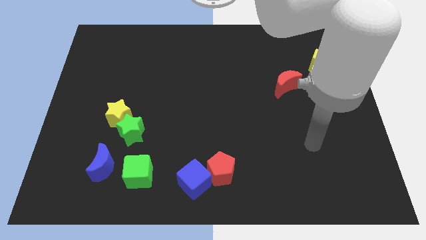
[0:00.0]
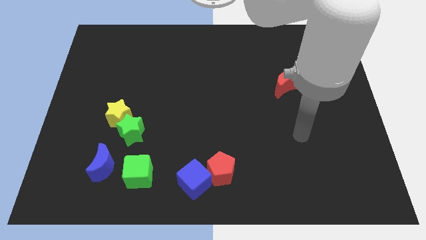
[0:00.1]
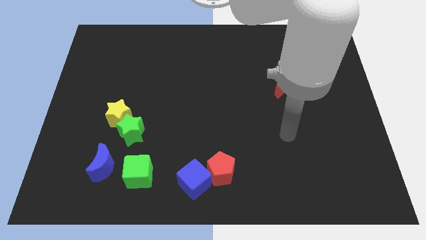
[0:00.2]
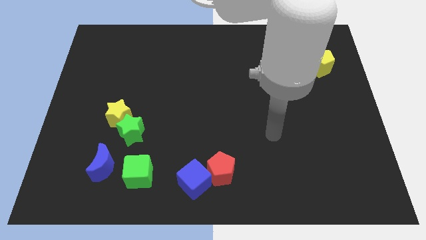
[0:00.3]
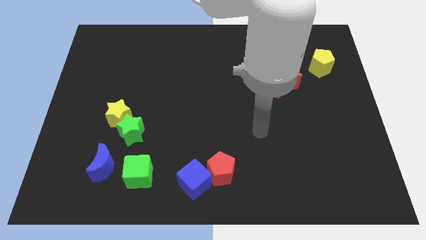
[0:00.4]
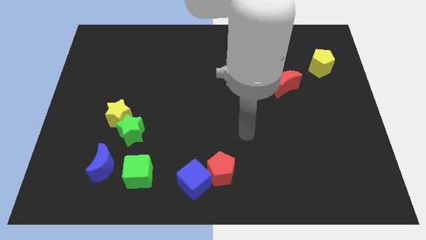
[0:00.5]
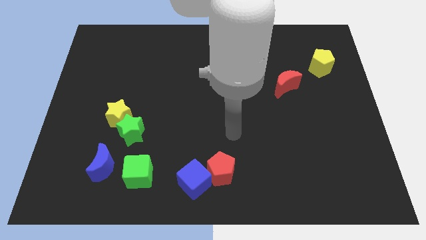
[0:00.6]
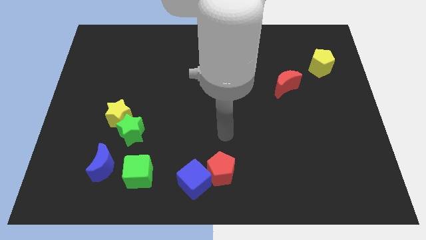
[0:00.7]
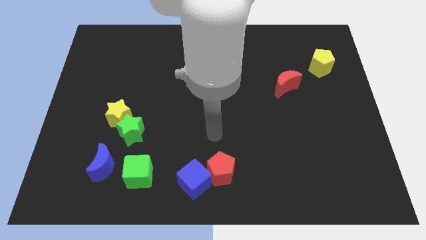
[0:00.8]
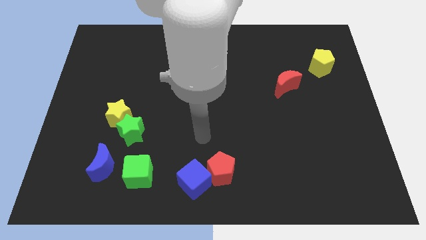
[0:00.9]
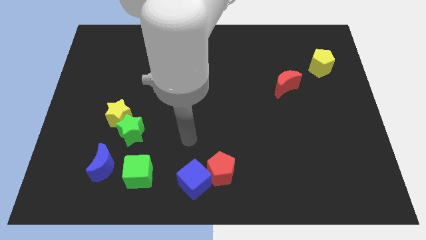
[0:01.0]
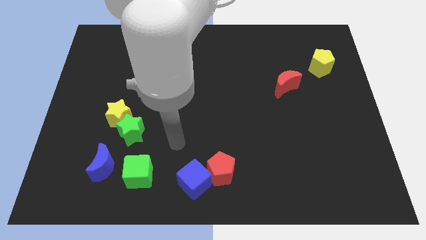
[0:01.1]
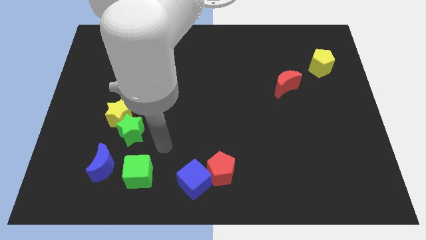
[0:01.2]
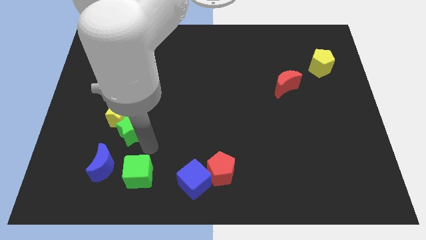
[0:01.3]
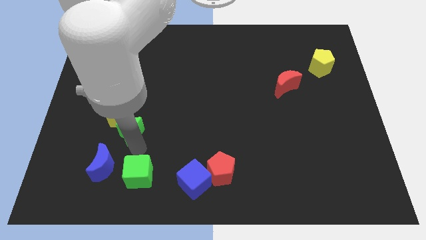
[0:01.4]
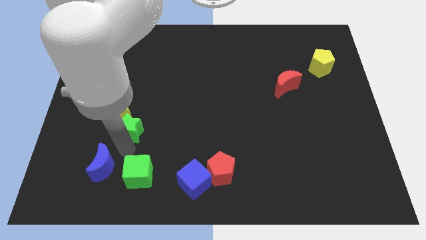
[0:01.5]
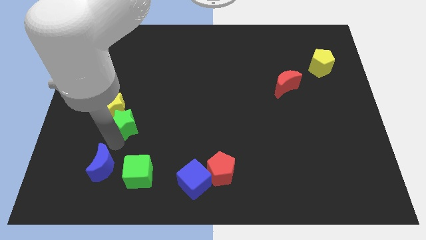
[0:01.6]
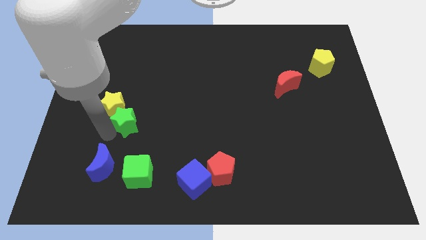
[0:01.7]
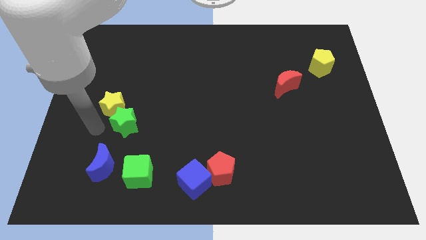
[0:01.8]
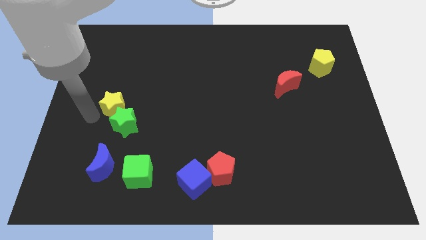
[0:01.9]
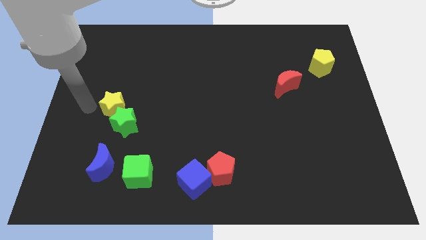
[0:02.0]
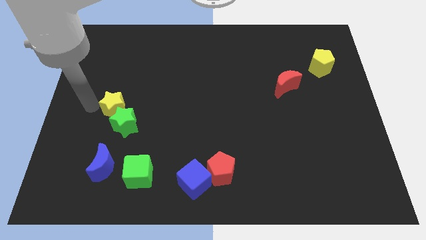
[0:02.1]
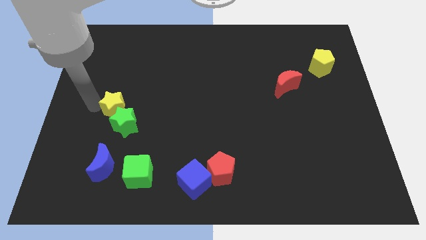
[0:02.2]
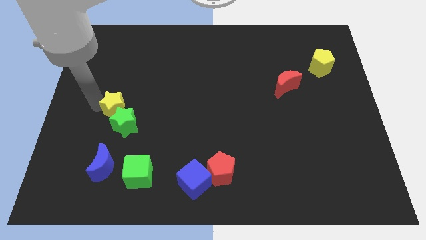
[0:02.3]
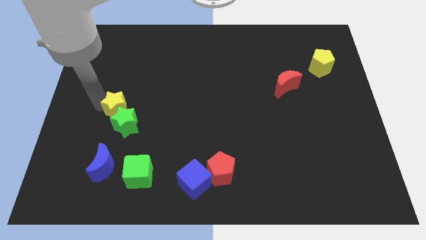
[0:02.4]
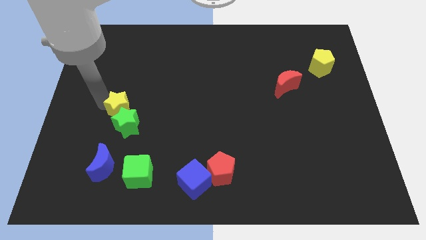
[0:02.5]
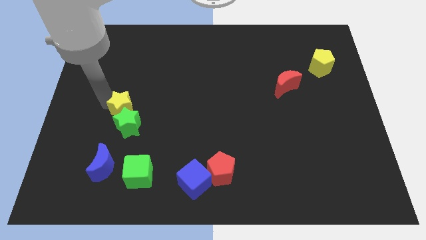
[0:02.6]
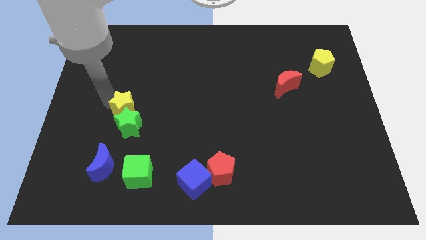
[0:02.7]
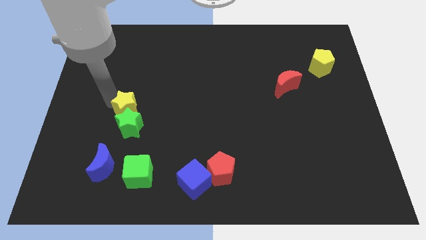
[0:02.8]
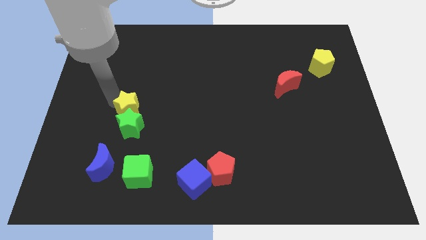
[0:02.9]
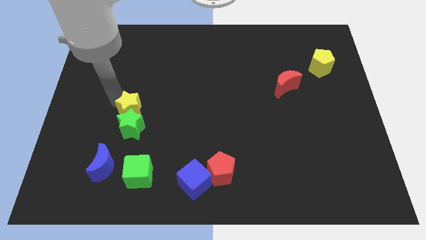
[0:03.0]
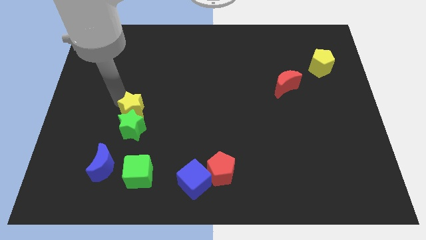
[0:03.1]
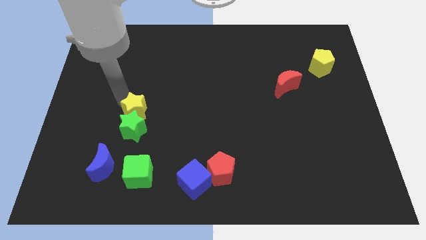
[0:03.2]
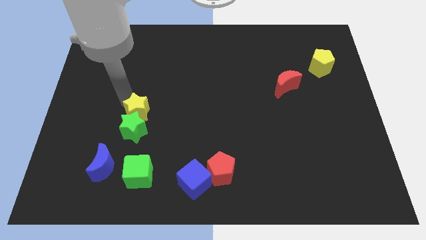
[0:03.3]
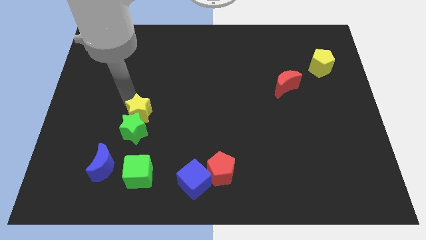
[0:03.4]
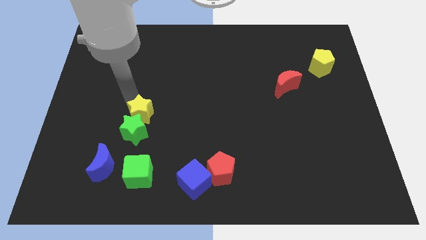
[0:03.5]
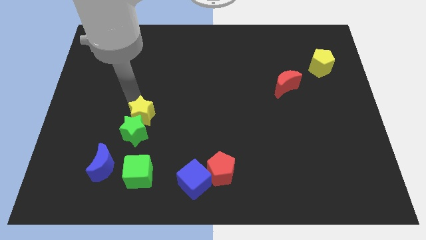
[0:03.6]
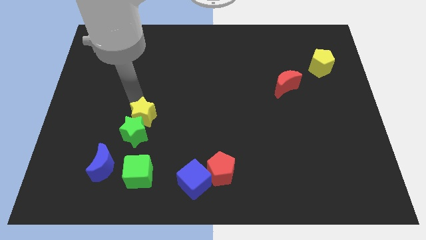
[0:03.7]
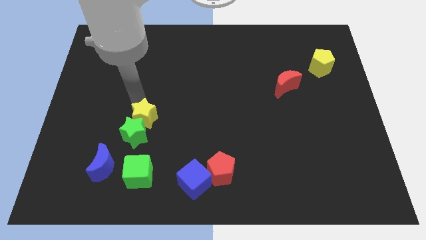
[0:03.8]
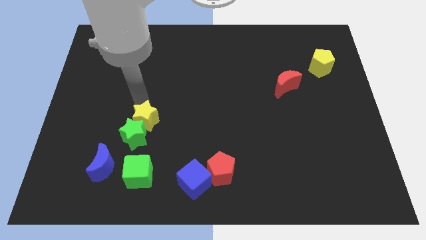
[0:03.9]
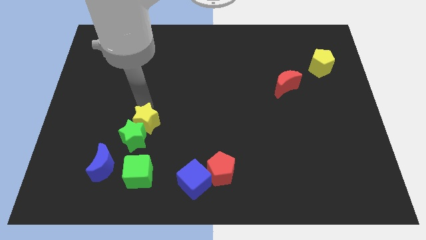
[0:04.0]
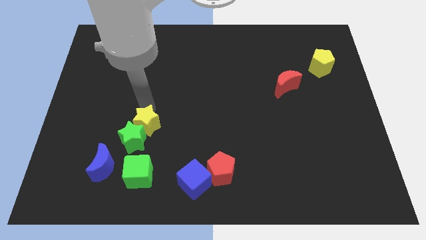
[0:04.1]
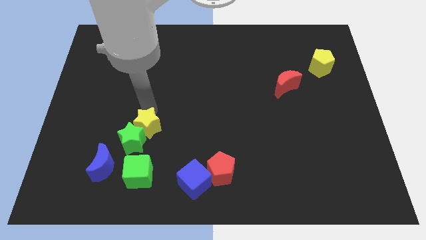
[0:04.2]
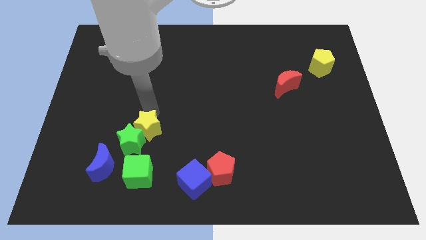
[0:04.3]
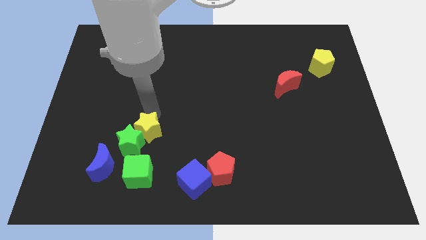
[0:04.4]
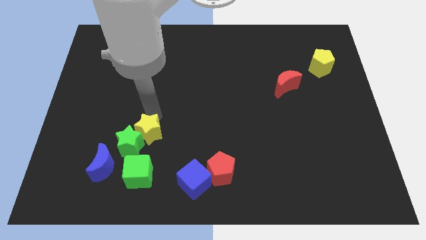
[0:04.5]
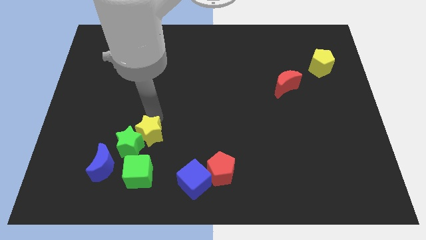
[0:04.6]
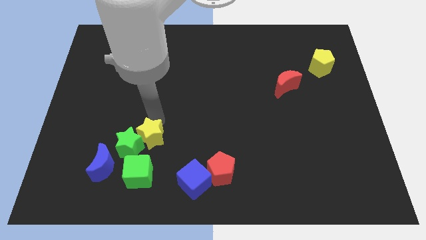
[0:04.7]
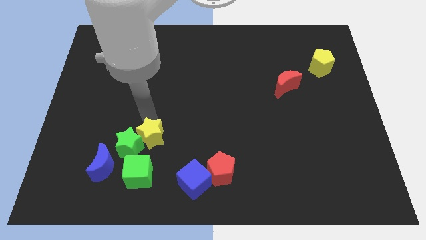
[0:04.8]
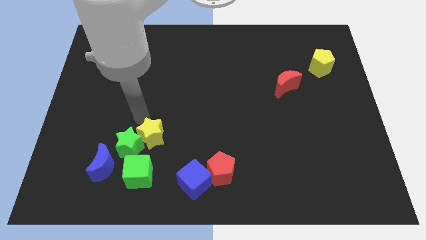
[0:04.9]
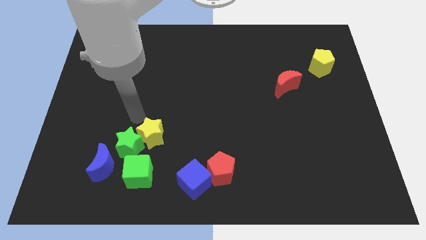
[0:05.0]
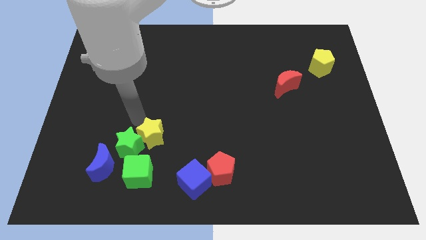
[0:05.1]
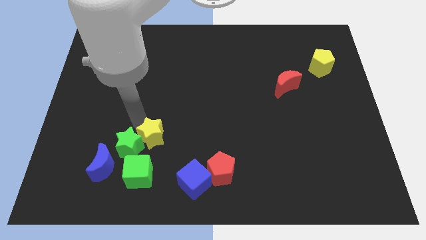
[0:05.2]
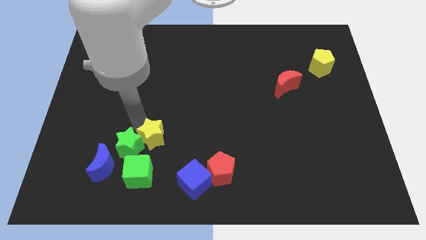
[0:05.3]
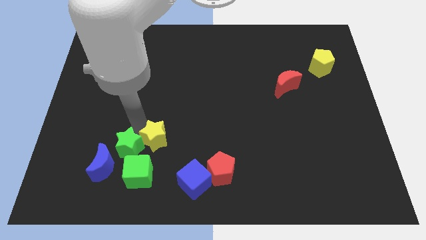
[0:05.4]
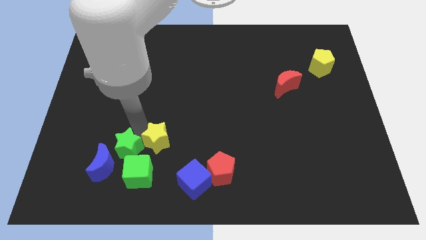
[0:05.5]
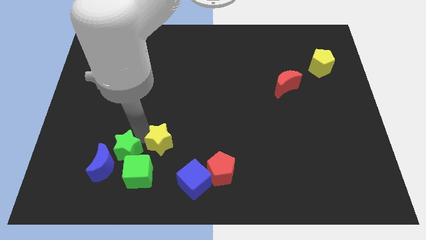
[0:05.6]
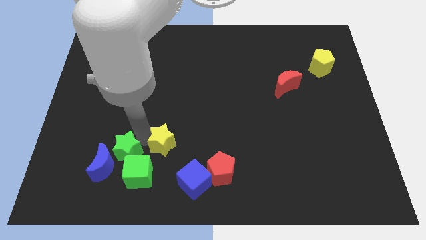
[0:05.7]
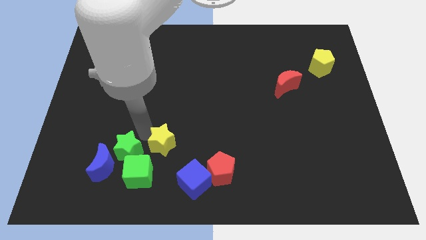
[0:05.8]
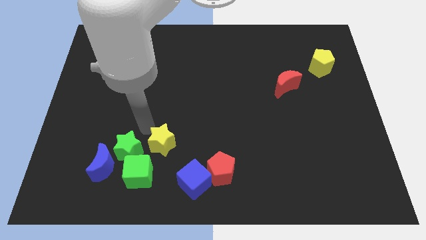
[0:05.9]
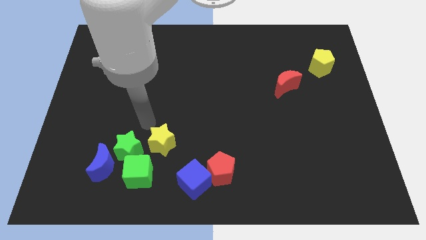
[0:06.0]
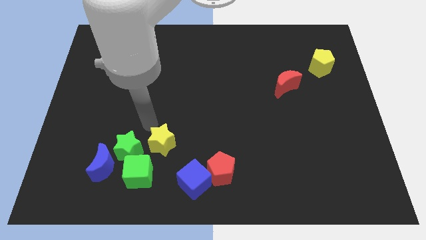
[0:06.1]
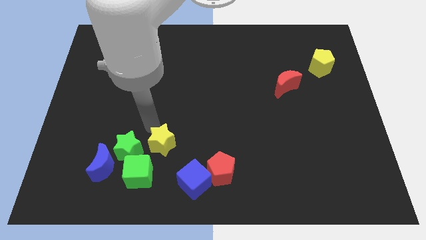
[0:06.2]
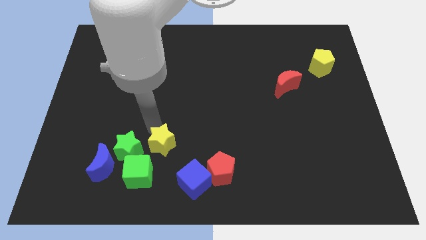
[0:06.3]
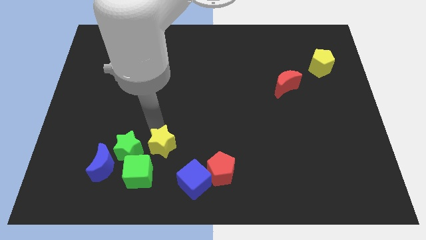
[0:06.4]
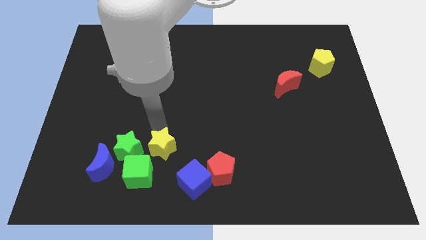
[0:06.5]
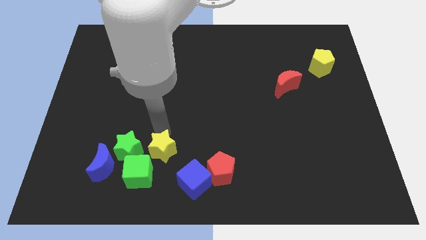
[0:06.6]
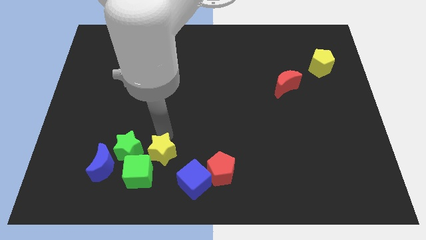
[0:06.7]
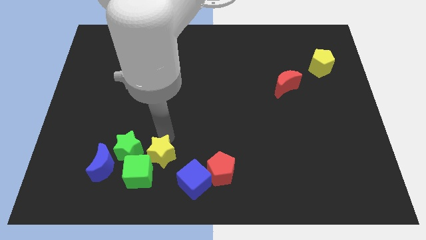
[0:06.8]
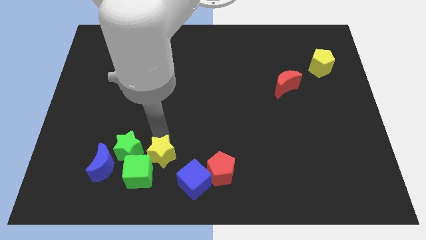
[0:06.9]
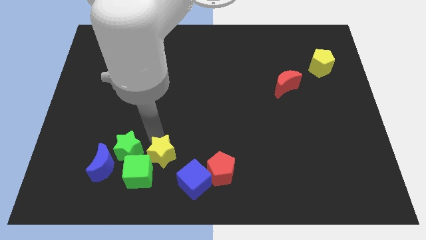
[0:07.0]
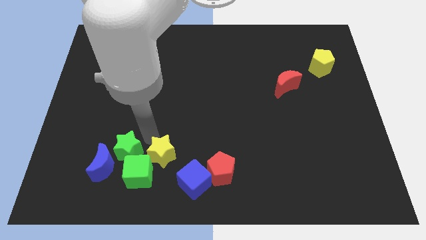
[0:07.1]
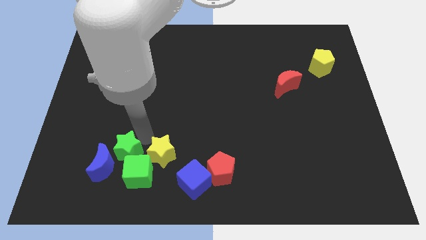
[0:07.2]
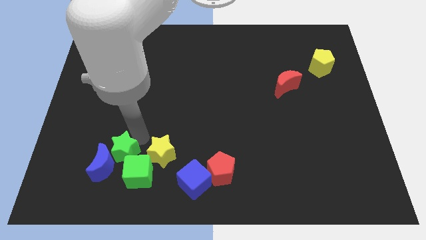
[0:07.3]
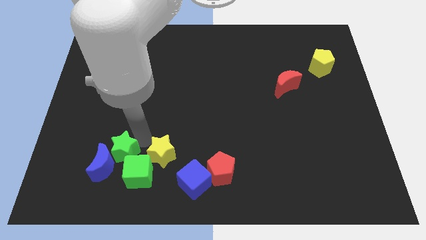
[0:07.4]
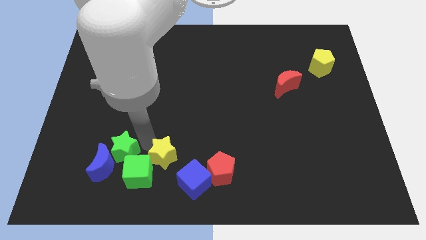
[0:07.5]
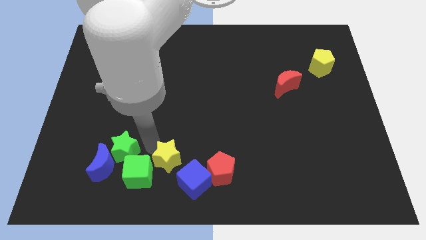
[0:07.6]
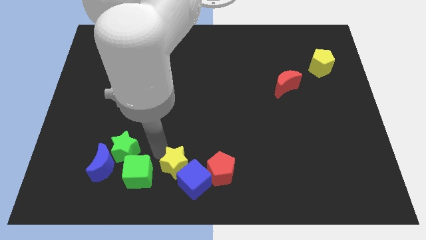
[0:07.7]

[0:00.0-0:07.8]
push the yellow star close to the blue cube

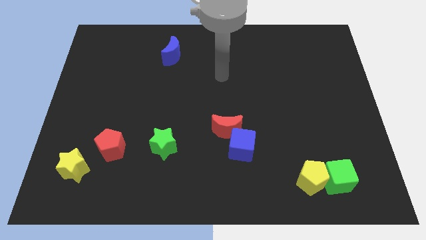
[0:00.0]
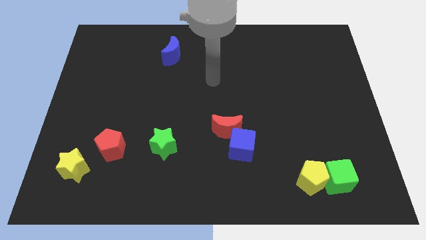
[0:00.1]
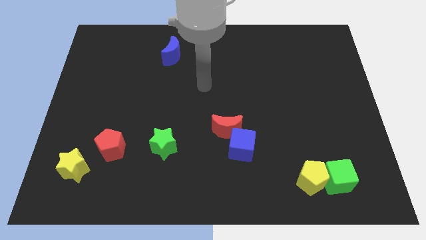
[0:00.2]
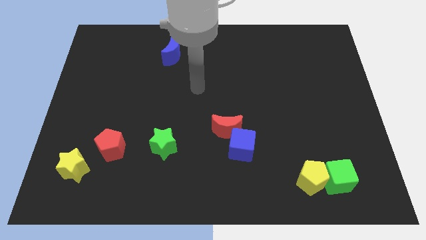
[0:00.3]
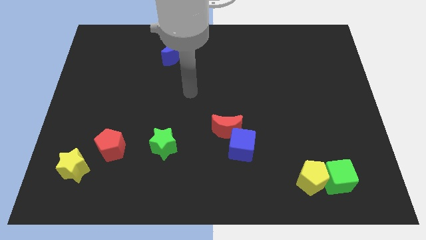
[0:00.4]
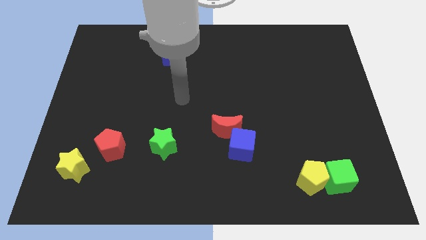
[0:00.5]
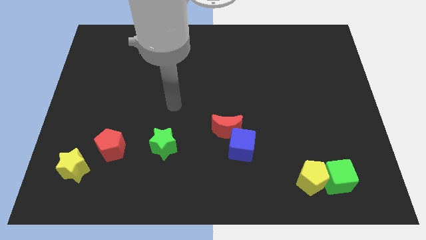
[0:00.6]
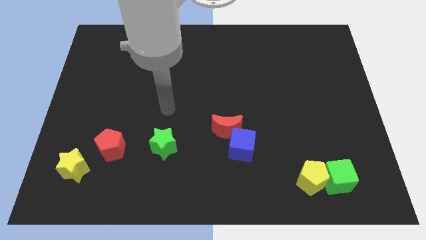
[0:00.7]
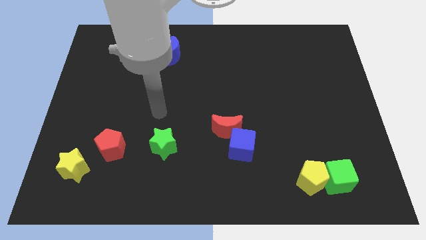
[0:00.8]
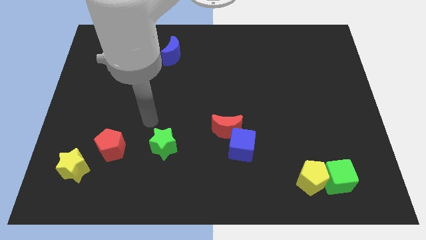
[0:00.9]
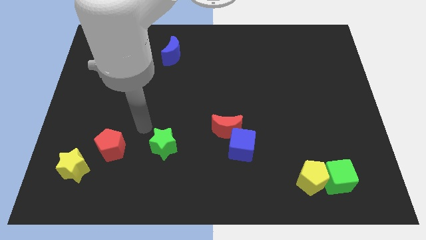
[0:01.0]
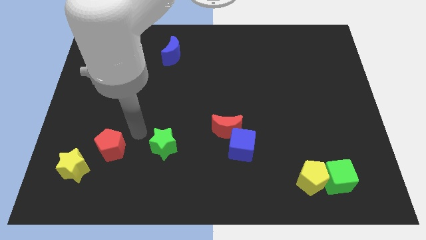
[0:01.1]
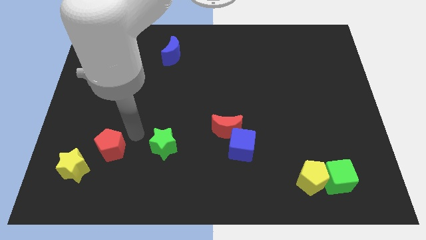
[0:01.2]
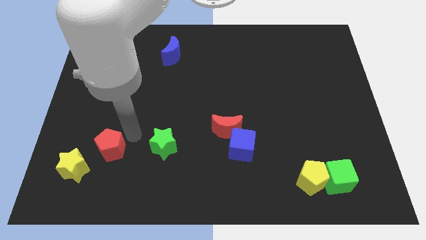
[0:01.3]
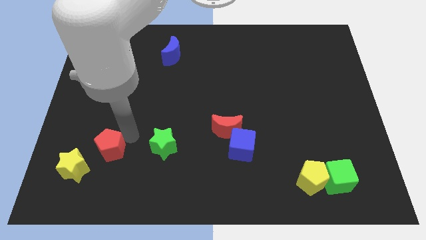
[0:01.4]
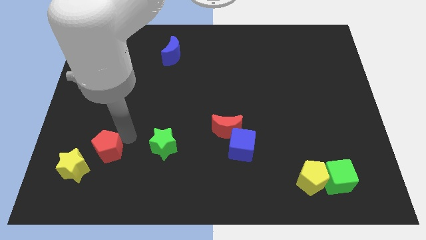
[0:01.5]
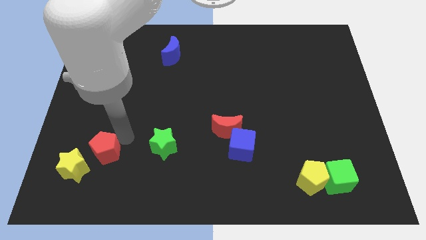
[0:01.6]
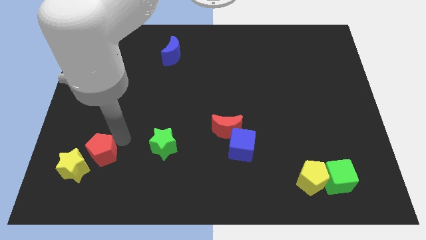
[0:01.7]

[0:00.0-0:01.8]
move the red pentagon to the yellow star
